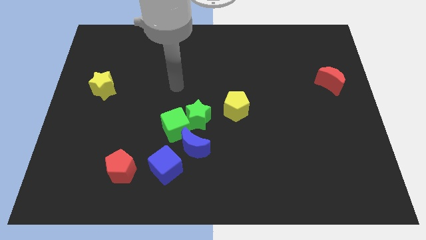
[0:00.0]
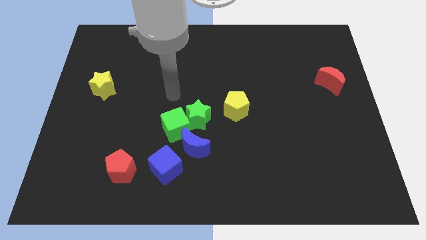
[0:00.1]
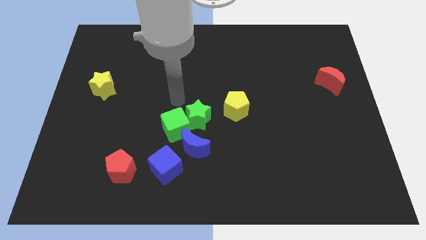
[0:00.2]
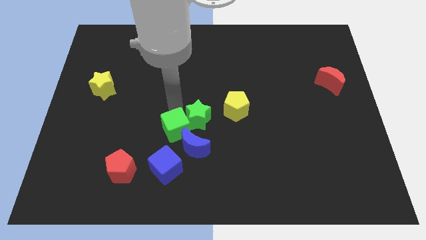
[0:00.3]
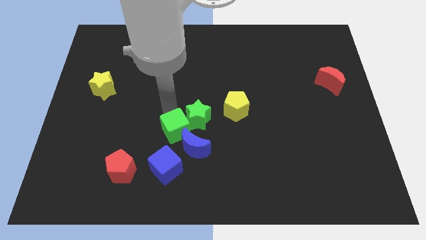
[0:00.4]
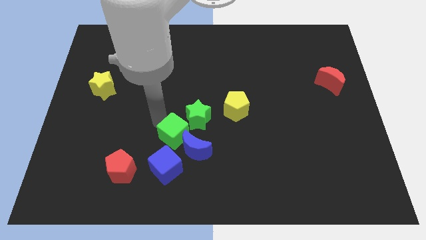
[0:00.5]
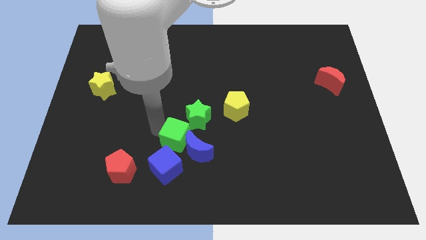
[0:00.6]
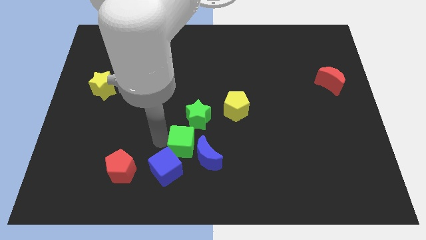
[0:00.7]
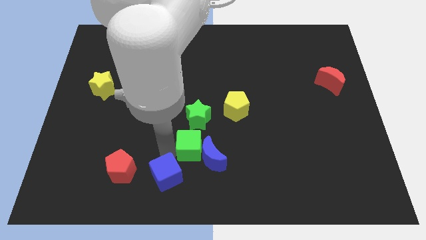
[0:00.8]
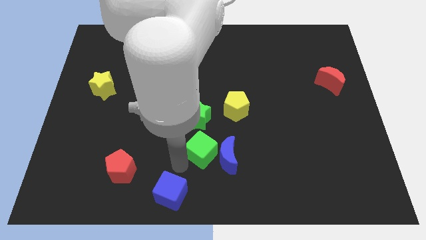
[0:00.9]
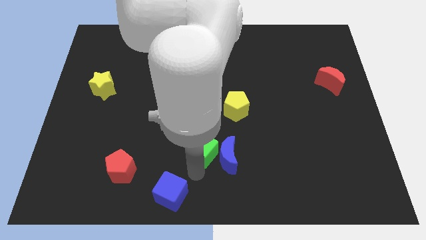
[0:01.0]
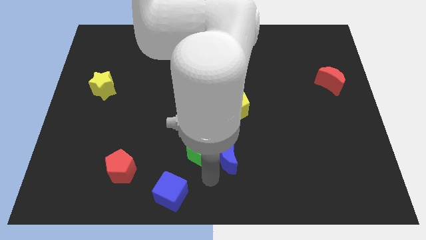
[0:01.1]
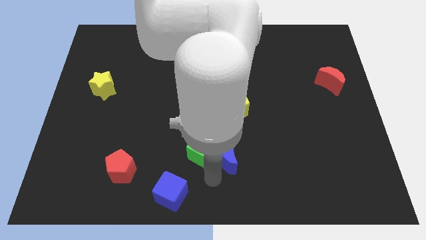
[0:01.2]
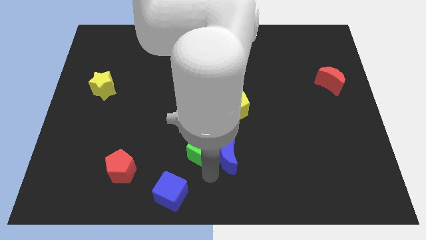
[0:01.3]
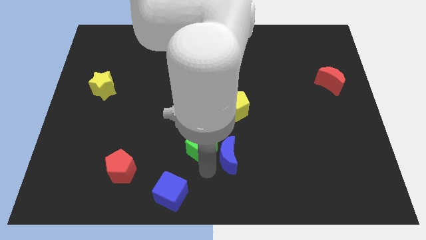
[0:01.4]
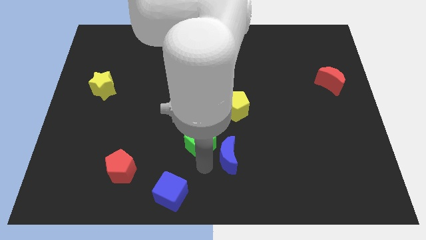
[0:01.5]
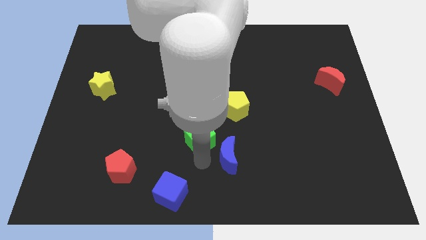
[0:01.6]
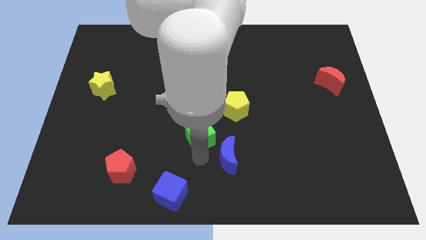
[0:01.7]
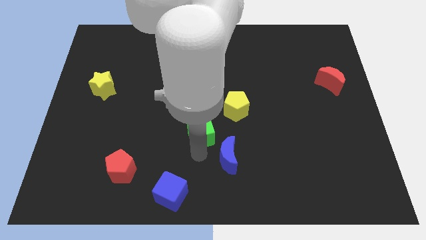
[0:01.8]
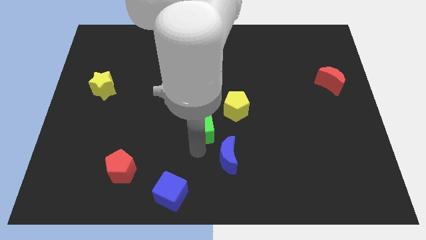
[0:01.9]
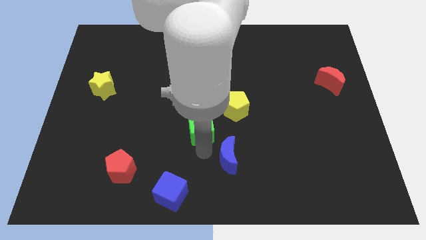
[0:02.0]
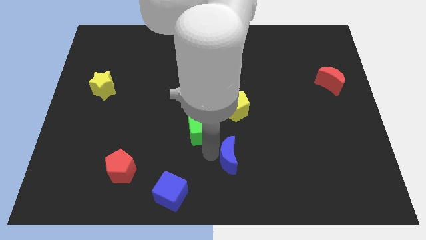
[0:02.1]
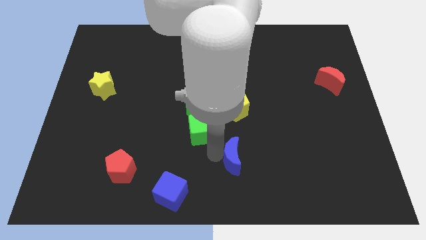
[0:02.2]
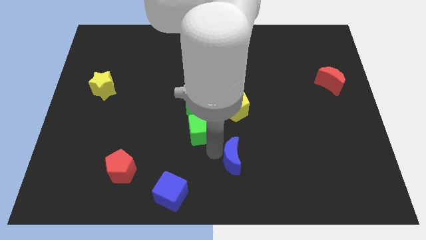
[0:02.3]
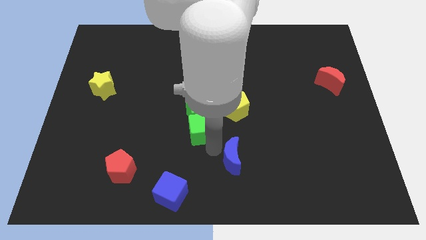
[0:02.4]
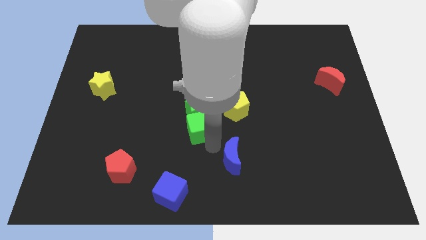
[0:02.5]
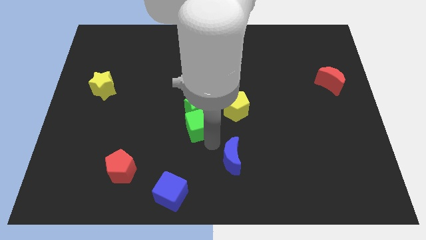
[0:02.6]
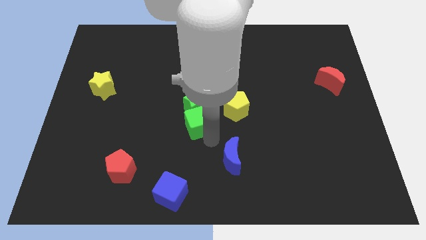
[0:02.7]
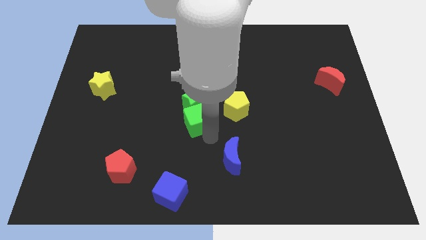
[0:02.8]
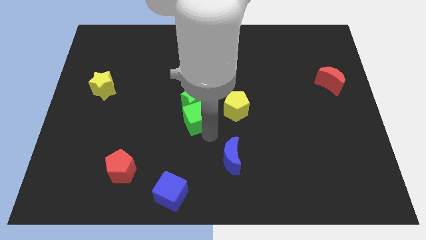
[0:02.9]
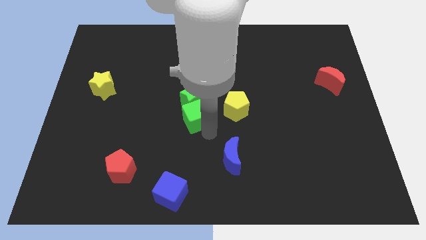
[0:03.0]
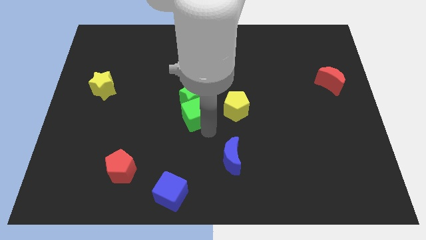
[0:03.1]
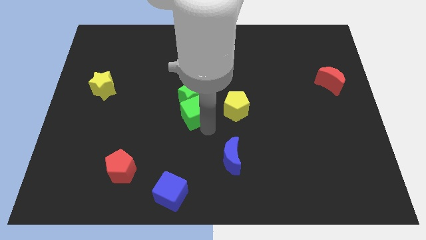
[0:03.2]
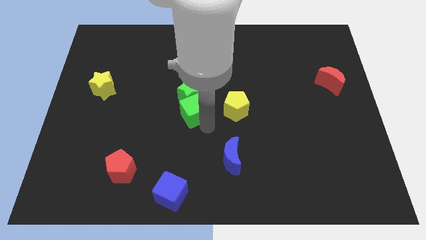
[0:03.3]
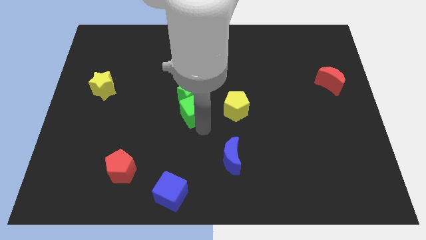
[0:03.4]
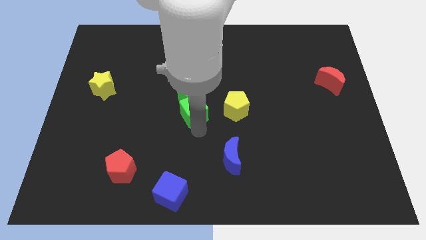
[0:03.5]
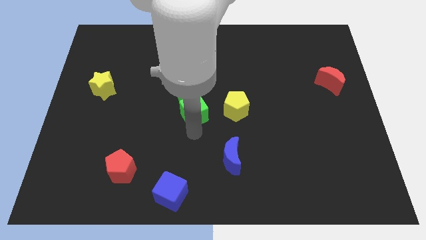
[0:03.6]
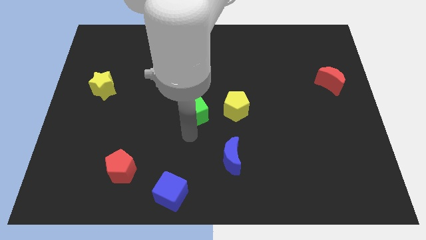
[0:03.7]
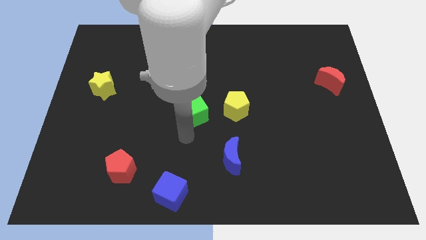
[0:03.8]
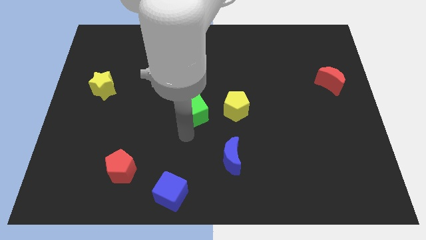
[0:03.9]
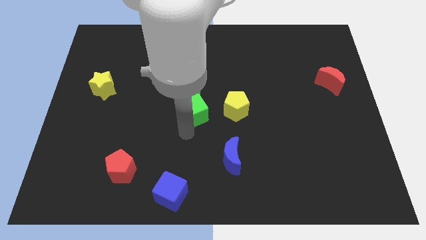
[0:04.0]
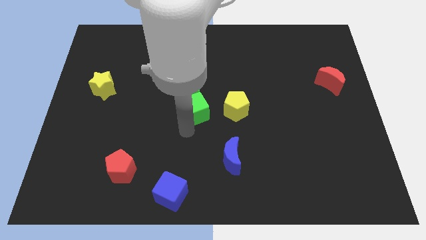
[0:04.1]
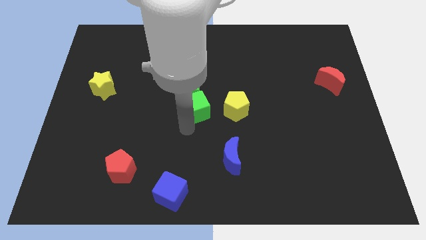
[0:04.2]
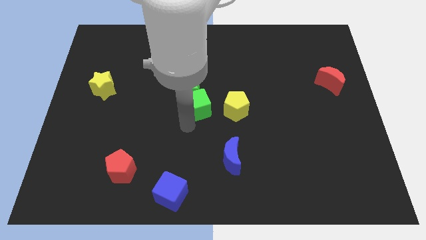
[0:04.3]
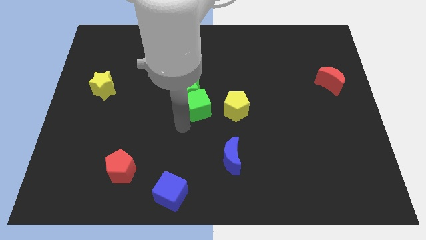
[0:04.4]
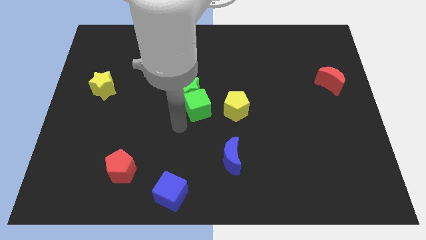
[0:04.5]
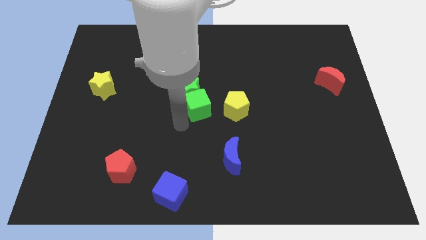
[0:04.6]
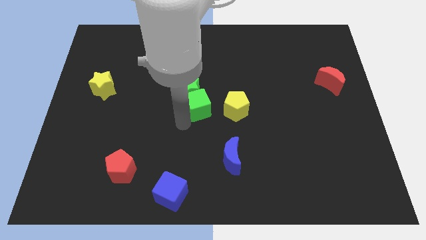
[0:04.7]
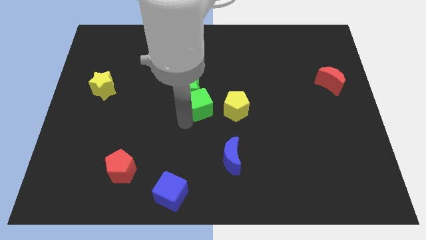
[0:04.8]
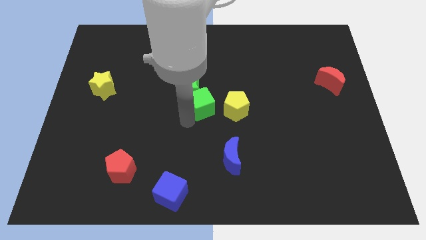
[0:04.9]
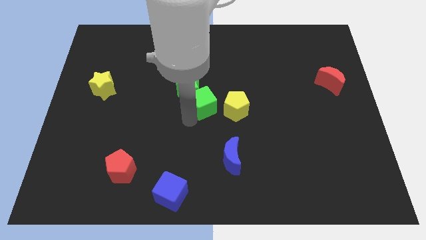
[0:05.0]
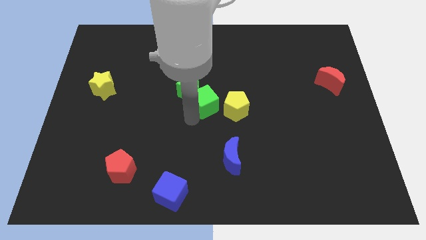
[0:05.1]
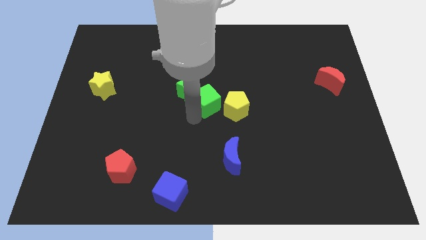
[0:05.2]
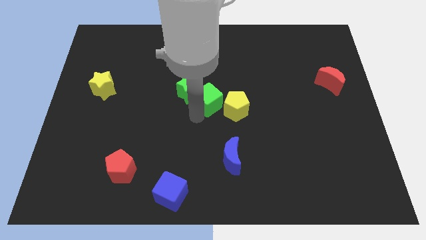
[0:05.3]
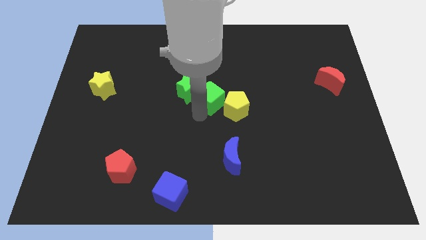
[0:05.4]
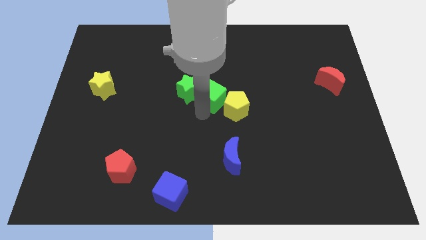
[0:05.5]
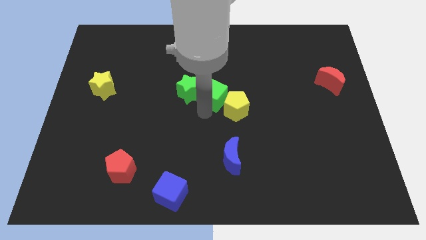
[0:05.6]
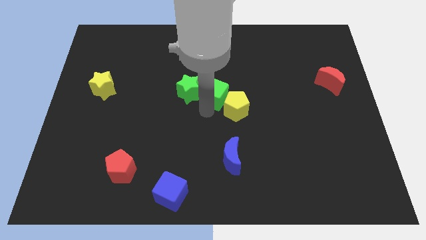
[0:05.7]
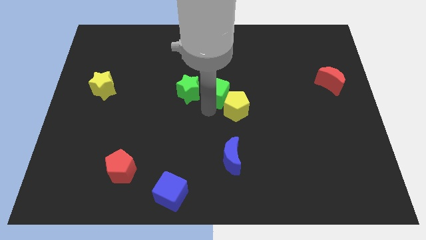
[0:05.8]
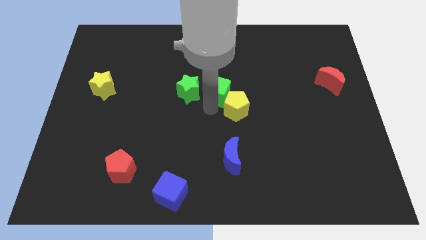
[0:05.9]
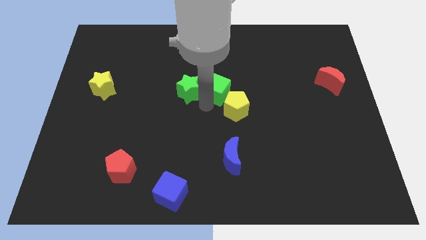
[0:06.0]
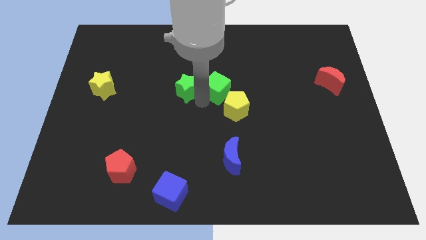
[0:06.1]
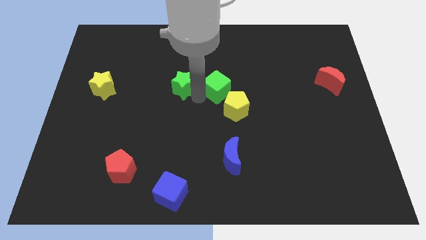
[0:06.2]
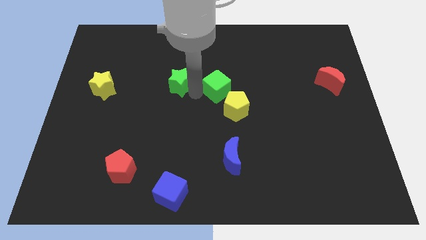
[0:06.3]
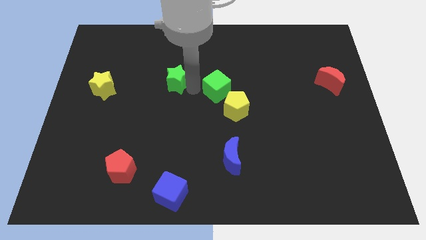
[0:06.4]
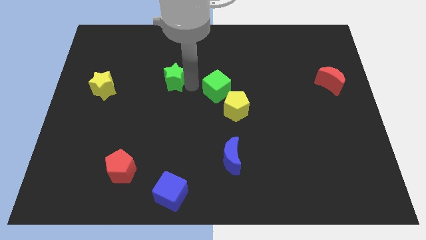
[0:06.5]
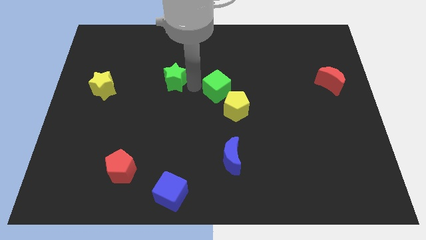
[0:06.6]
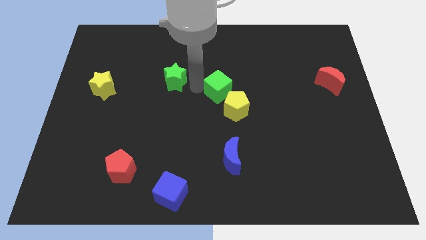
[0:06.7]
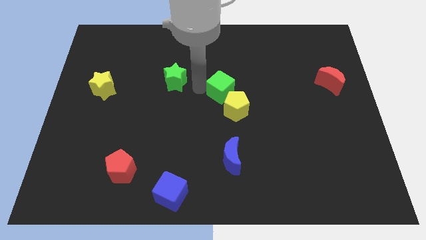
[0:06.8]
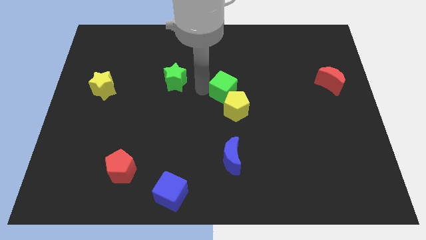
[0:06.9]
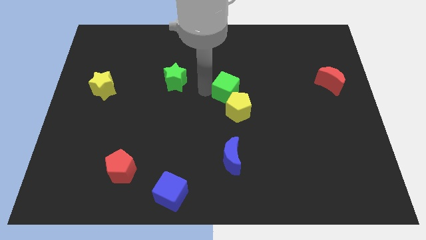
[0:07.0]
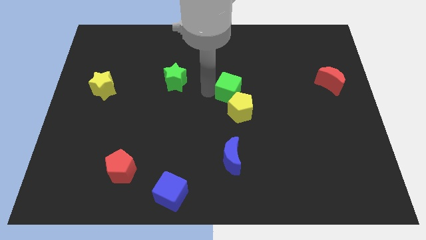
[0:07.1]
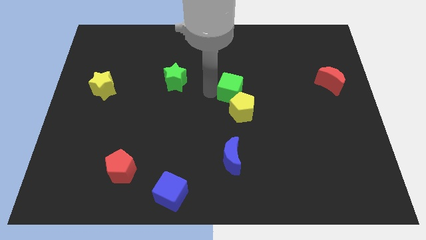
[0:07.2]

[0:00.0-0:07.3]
move the green cube right slightly

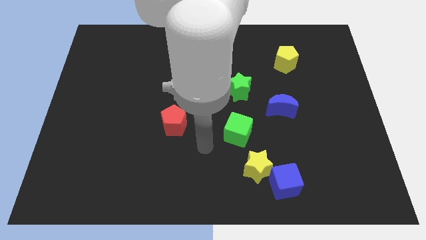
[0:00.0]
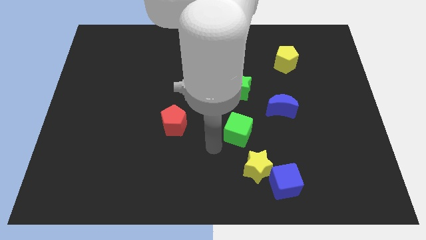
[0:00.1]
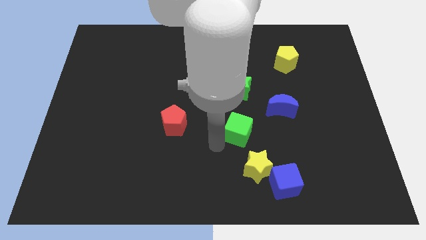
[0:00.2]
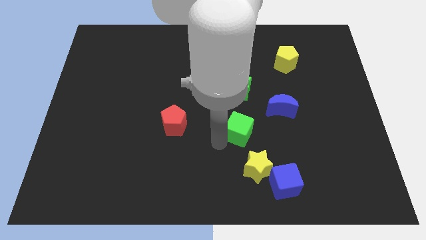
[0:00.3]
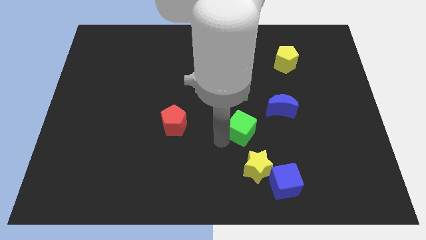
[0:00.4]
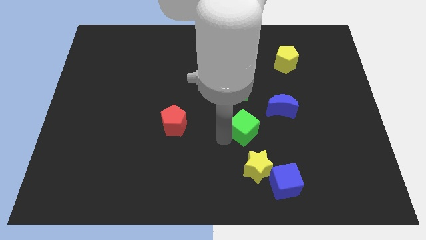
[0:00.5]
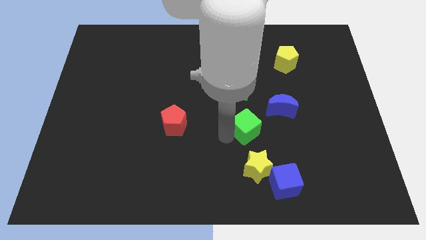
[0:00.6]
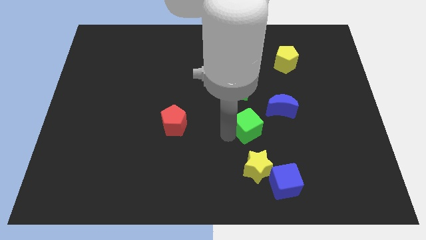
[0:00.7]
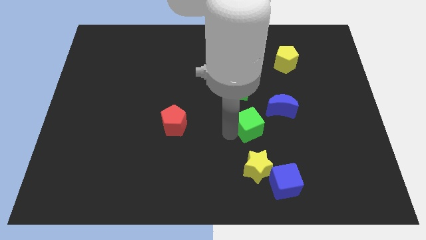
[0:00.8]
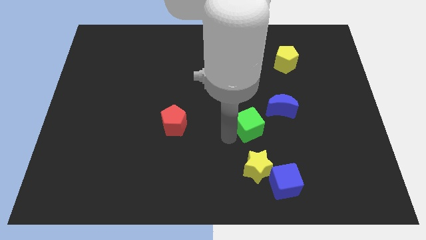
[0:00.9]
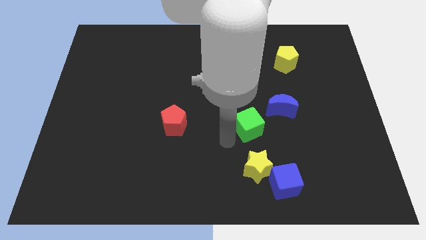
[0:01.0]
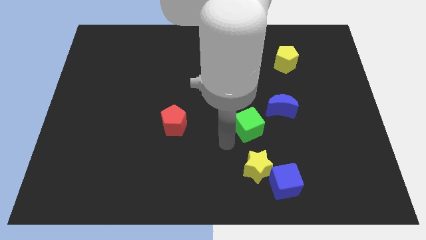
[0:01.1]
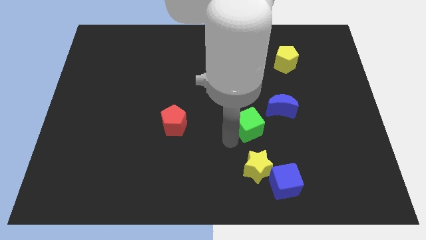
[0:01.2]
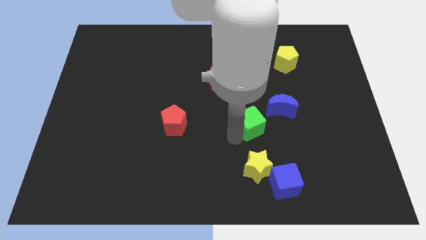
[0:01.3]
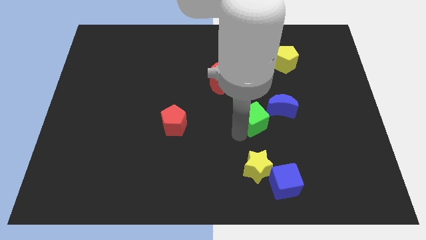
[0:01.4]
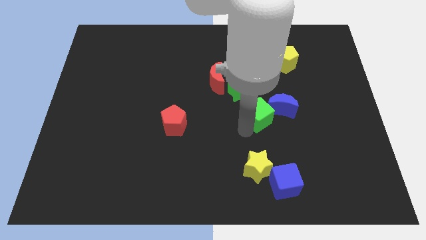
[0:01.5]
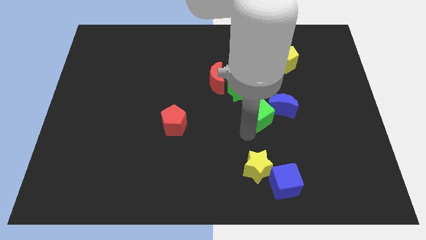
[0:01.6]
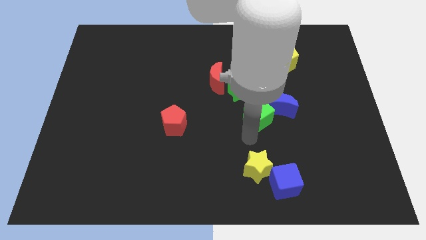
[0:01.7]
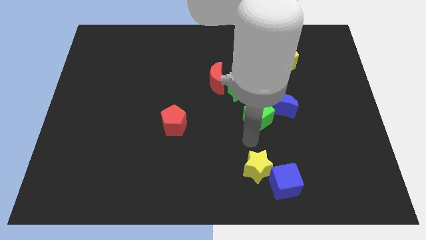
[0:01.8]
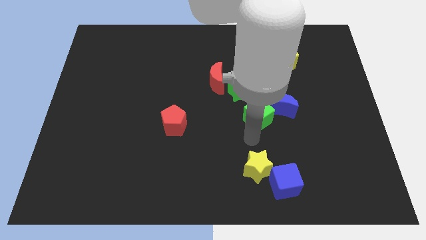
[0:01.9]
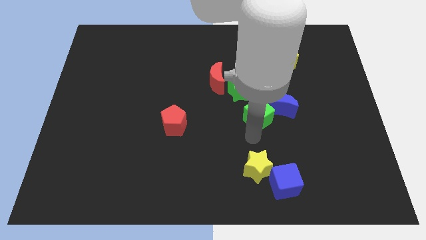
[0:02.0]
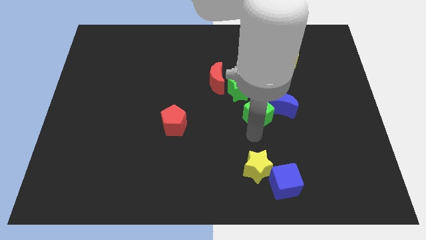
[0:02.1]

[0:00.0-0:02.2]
slide the green cube diagonally up and right a bit
